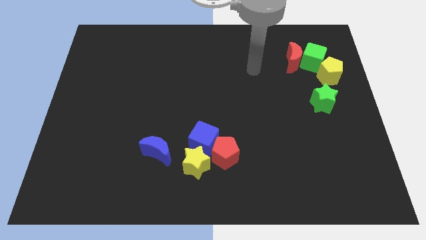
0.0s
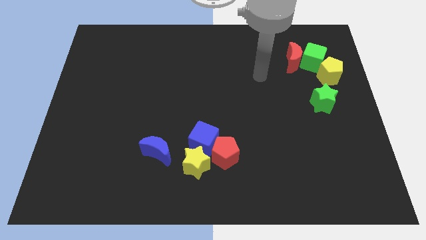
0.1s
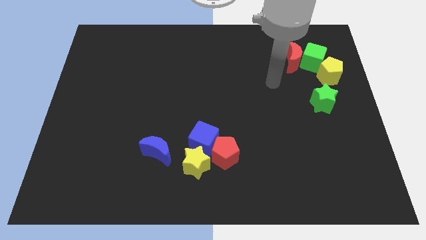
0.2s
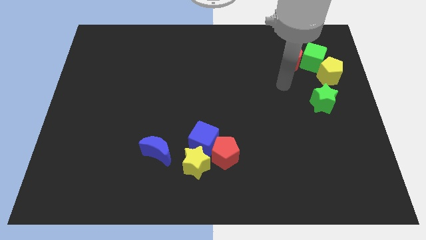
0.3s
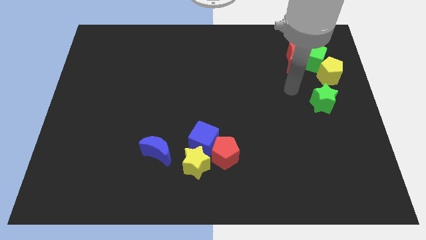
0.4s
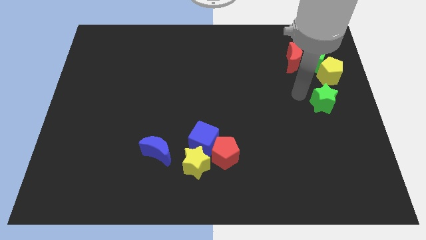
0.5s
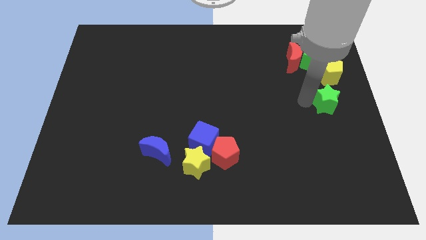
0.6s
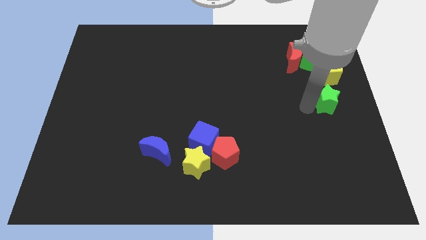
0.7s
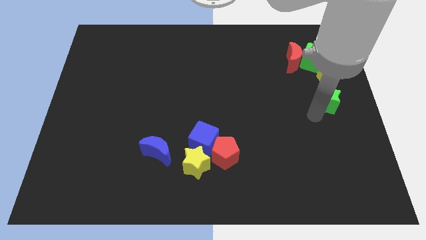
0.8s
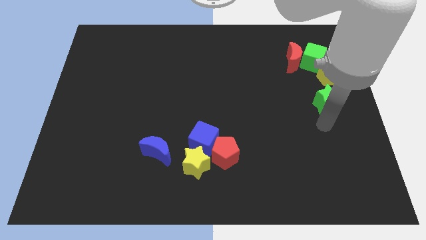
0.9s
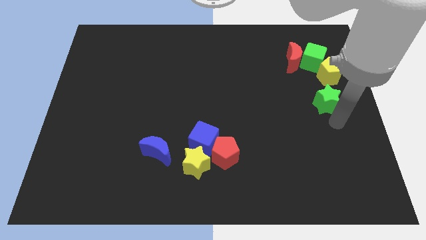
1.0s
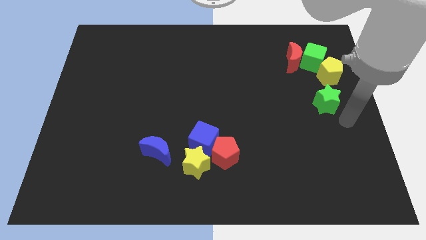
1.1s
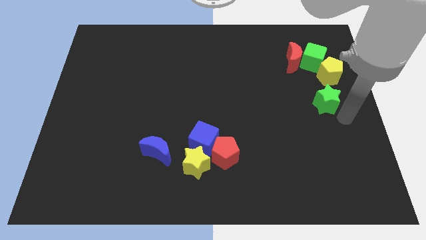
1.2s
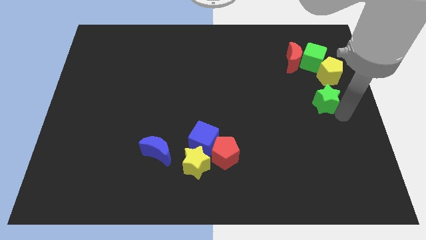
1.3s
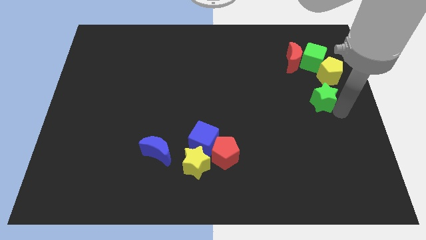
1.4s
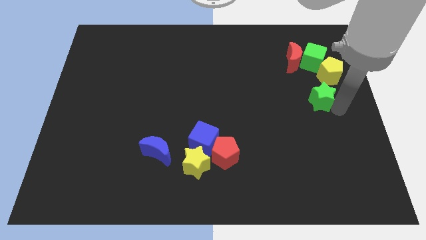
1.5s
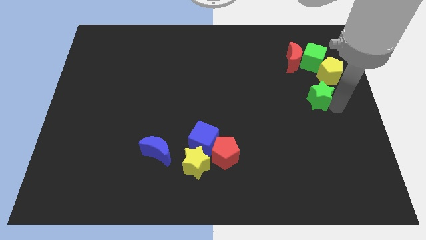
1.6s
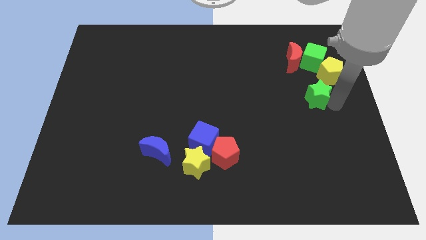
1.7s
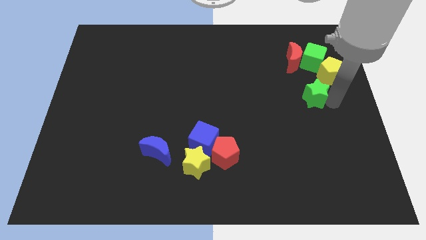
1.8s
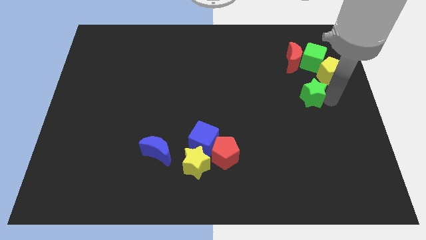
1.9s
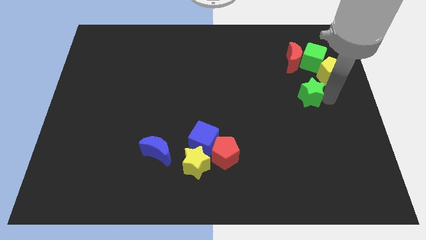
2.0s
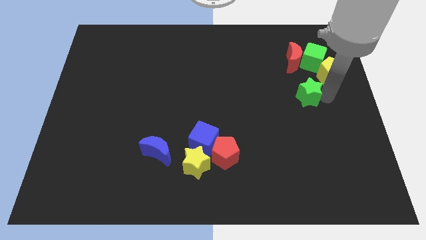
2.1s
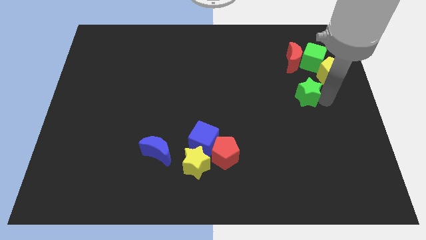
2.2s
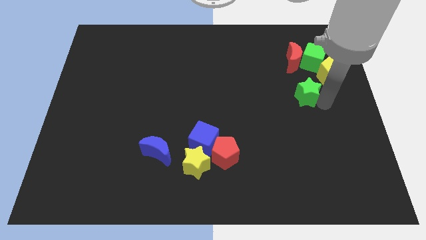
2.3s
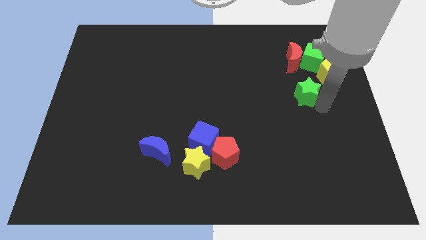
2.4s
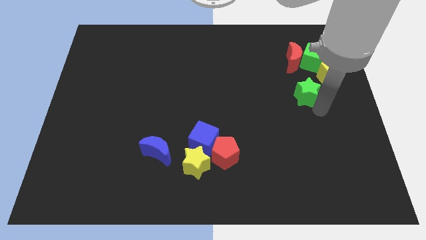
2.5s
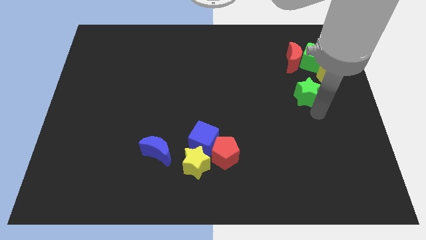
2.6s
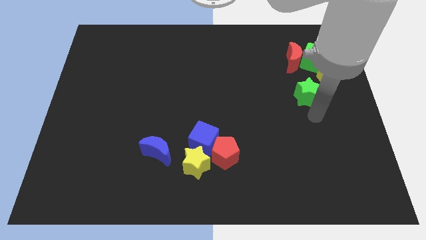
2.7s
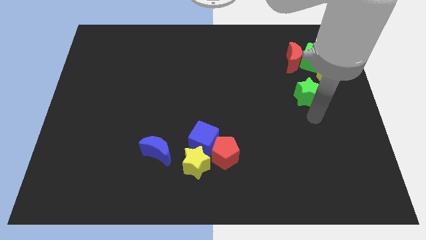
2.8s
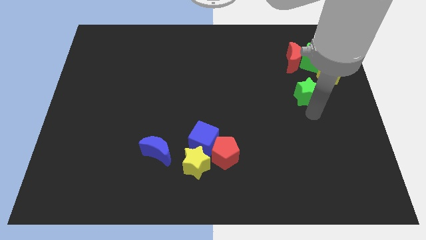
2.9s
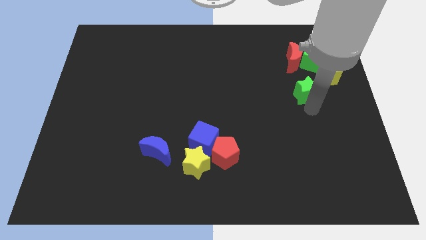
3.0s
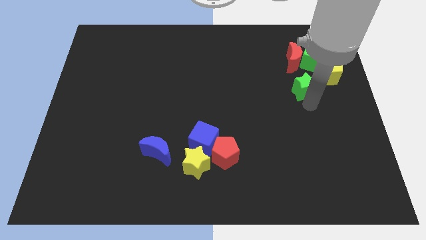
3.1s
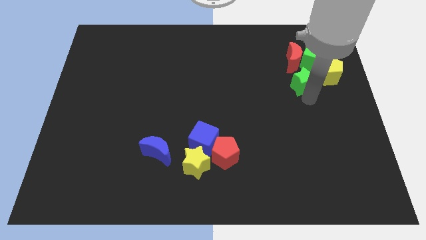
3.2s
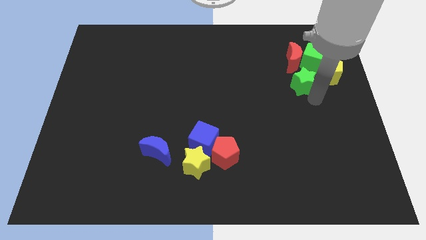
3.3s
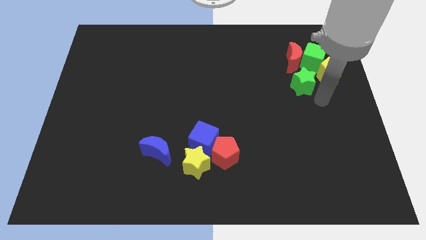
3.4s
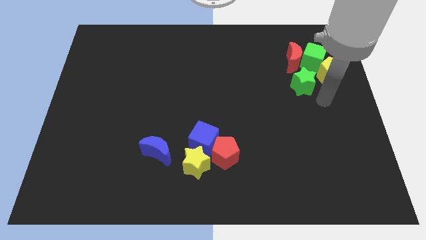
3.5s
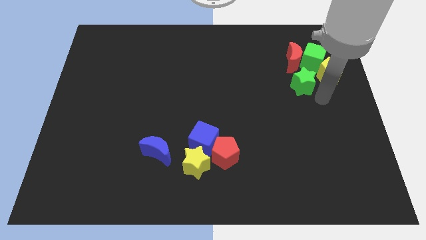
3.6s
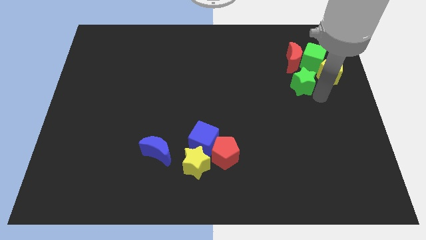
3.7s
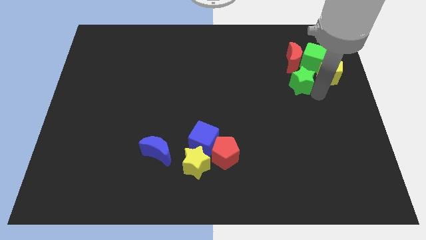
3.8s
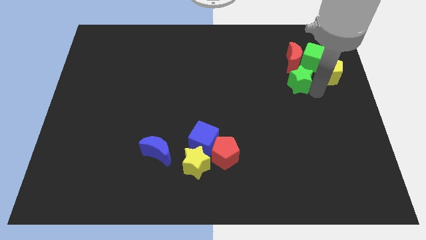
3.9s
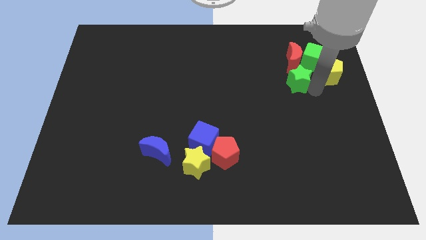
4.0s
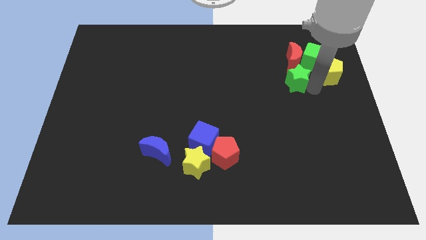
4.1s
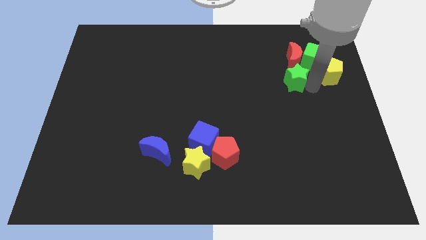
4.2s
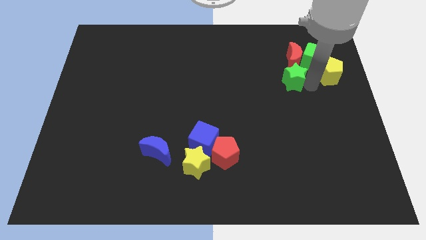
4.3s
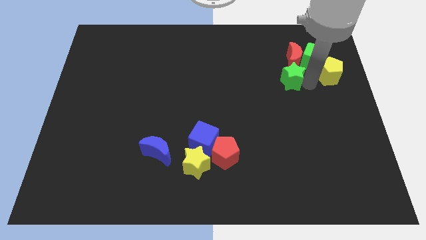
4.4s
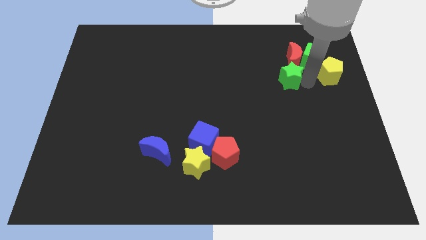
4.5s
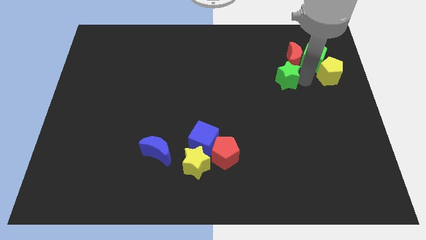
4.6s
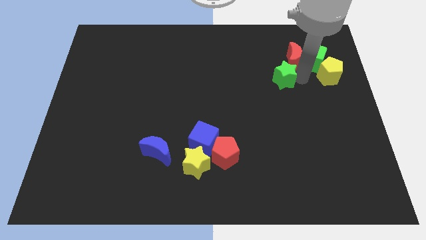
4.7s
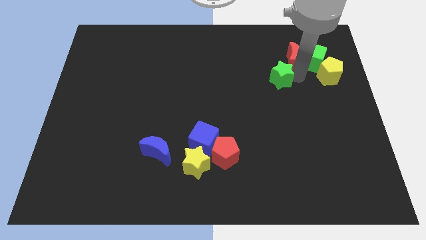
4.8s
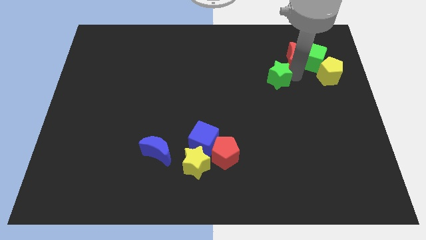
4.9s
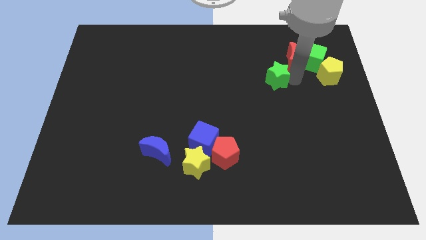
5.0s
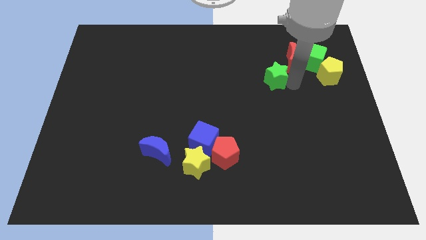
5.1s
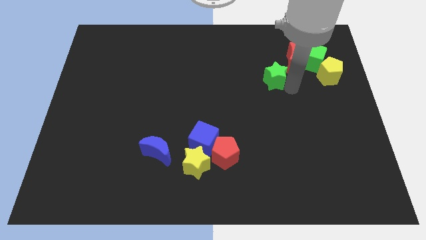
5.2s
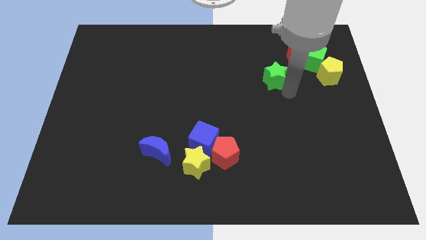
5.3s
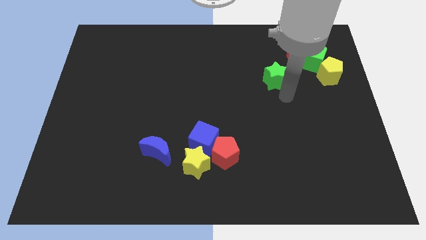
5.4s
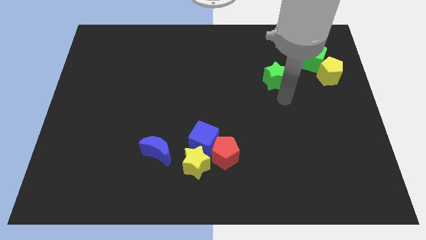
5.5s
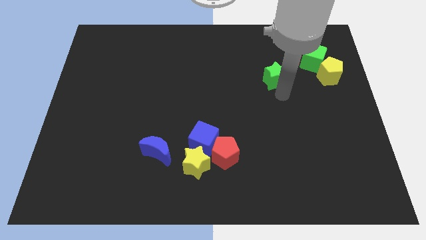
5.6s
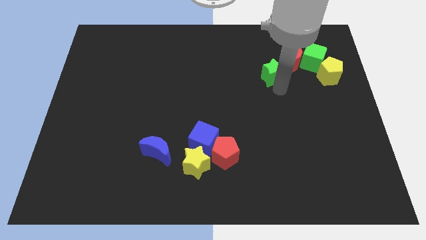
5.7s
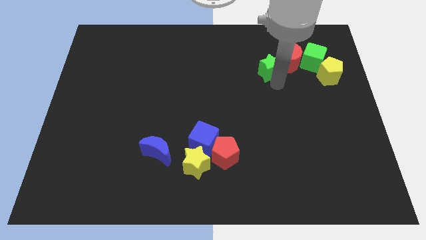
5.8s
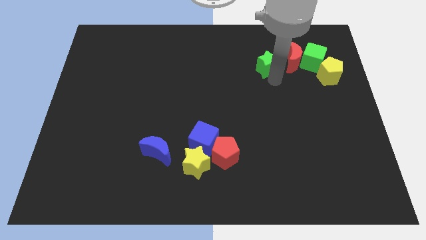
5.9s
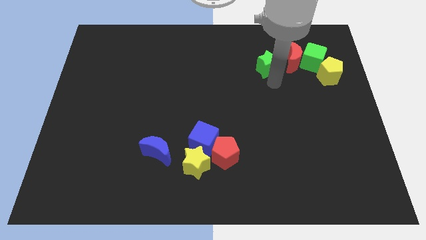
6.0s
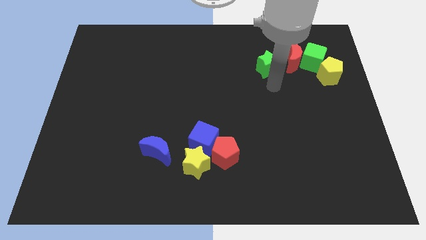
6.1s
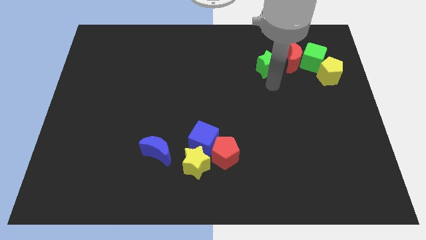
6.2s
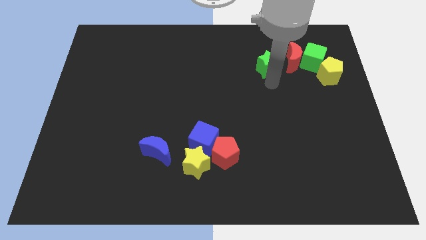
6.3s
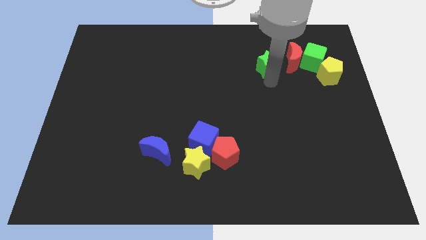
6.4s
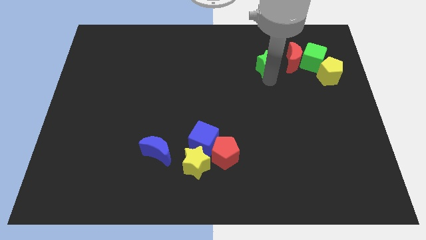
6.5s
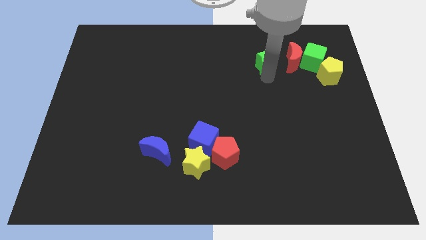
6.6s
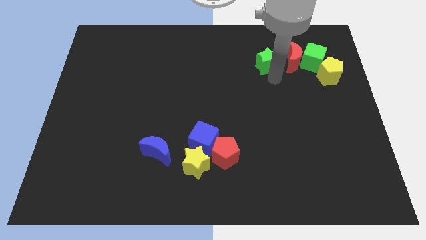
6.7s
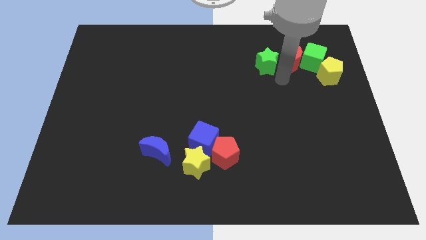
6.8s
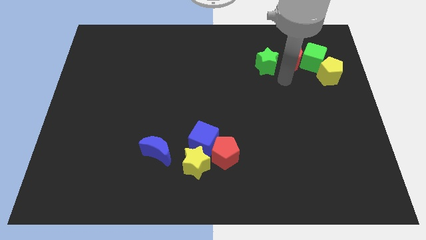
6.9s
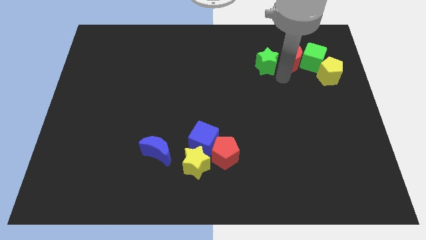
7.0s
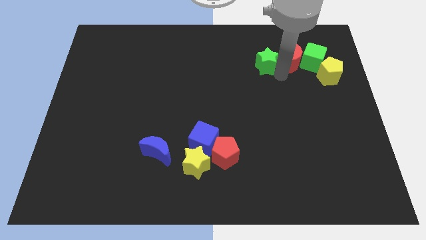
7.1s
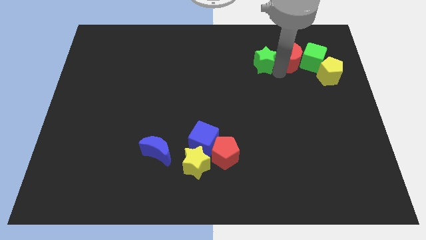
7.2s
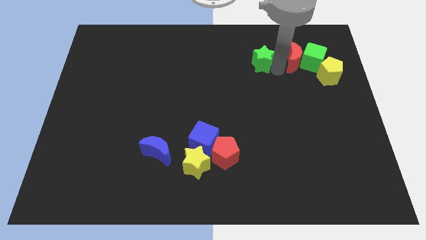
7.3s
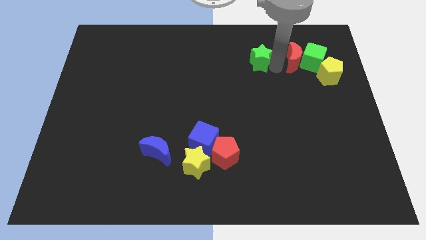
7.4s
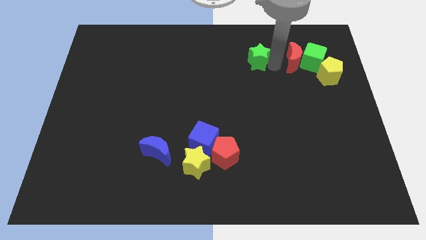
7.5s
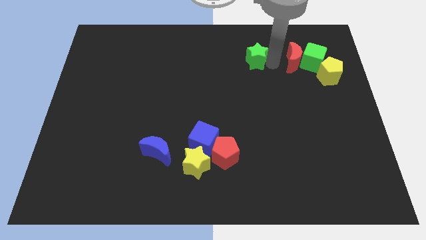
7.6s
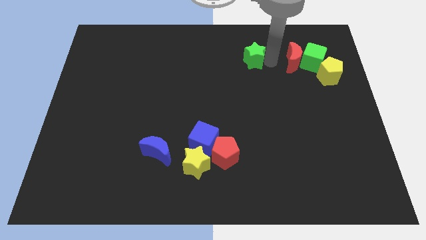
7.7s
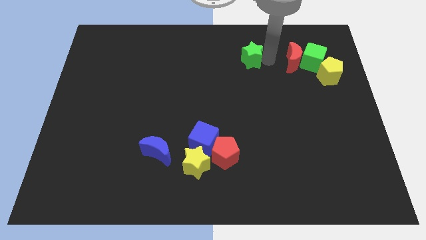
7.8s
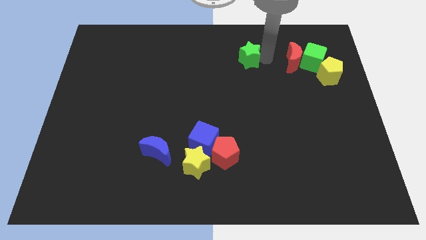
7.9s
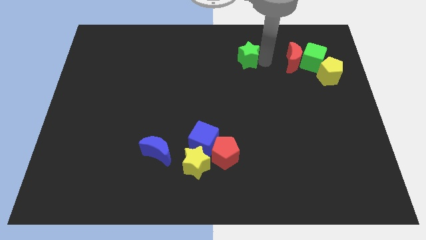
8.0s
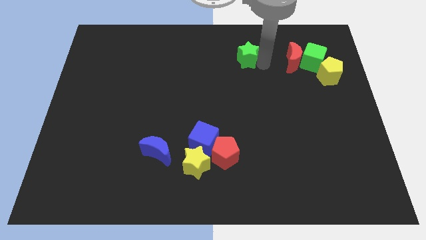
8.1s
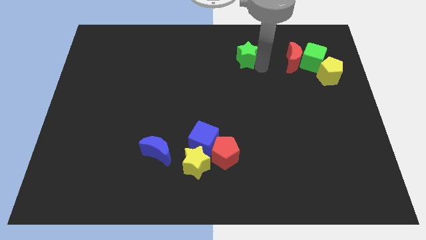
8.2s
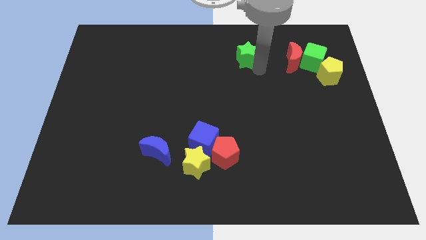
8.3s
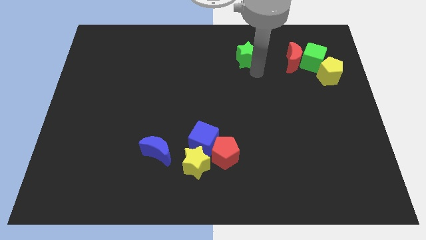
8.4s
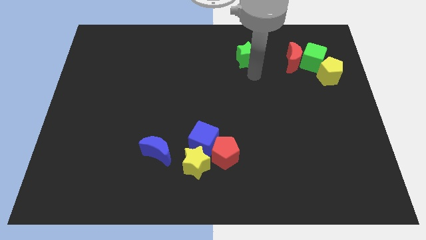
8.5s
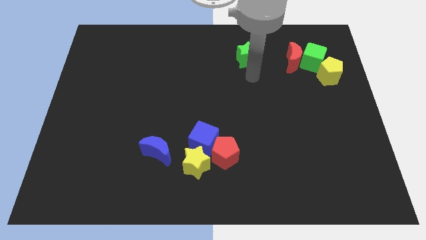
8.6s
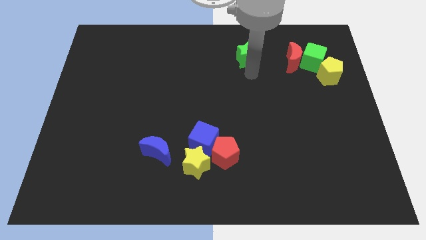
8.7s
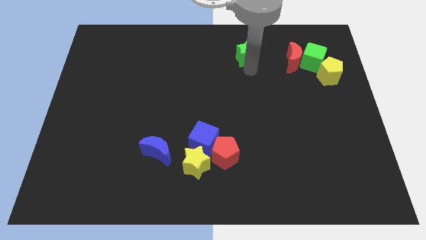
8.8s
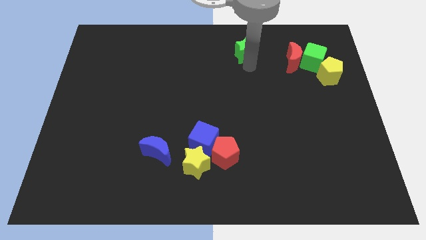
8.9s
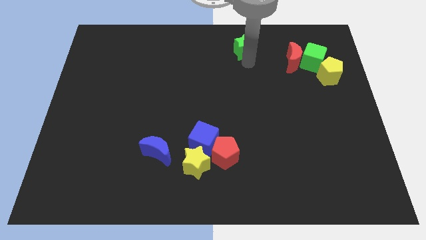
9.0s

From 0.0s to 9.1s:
push the green star to the top side
